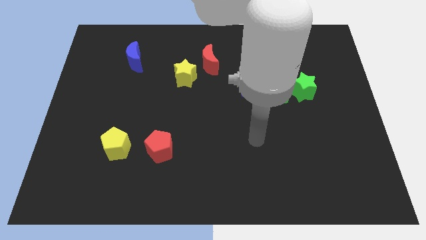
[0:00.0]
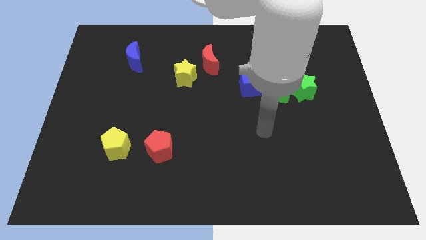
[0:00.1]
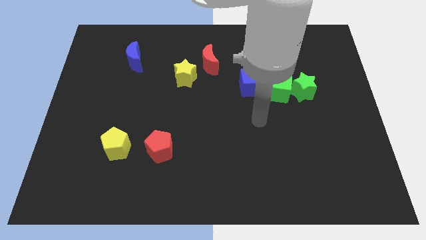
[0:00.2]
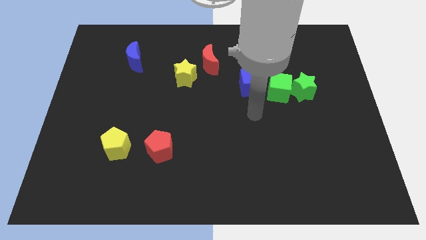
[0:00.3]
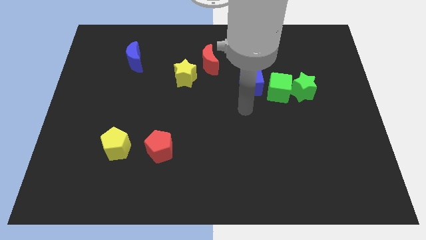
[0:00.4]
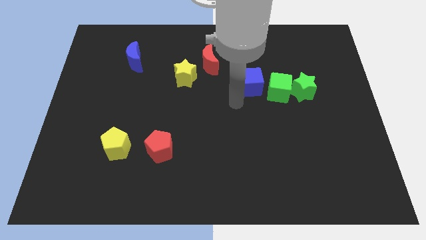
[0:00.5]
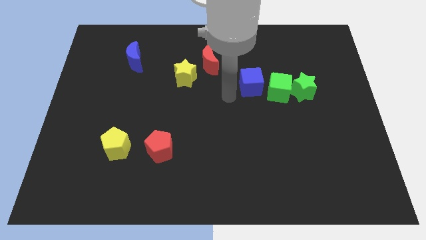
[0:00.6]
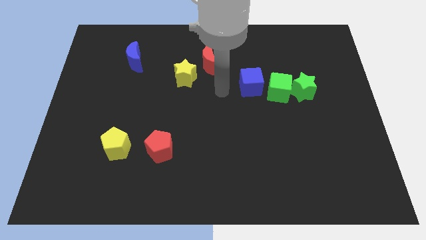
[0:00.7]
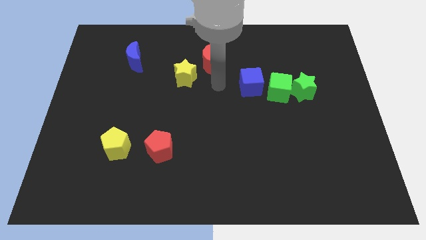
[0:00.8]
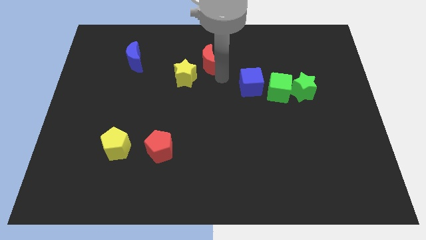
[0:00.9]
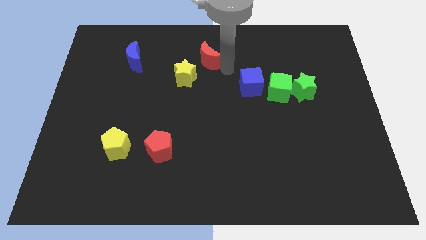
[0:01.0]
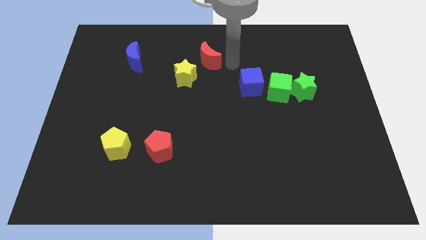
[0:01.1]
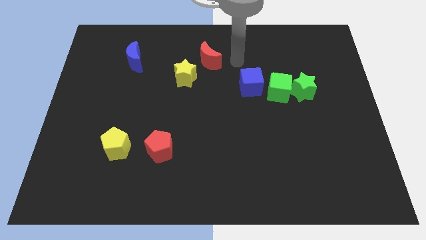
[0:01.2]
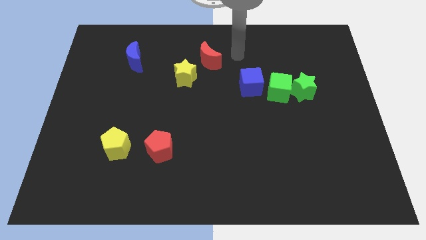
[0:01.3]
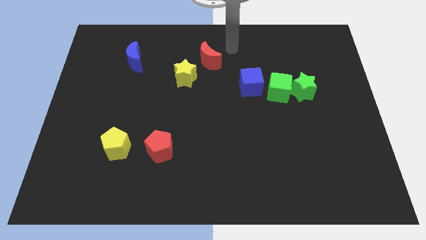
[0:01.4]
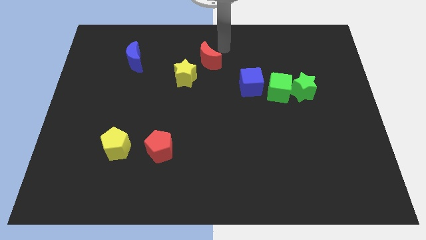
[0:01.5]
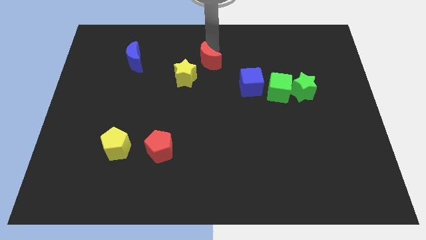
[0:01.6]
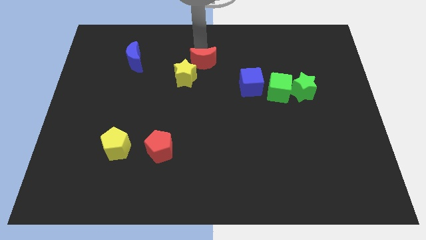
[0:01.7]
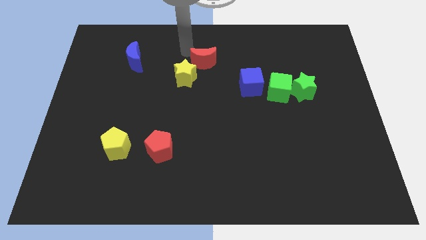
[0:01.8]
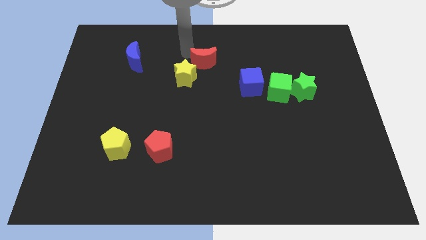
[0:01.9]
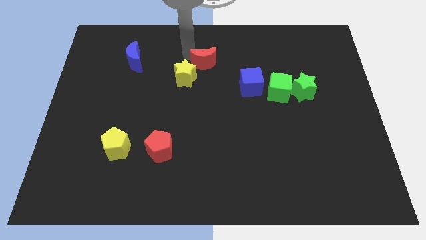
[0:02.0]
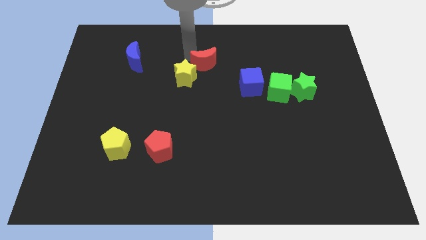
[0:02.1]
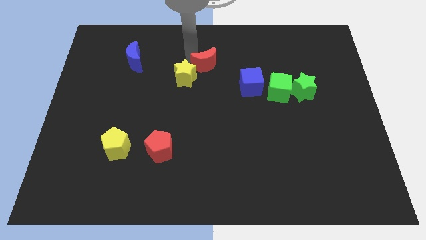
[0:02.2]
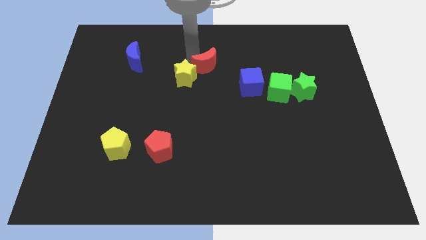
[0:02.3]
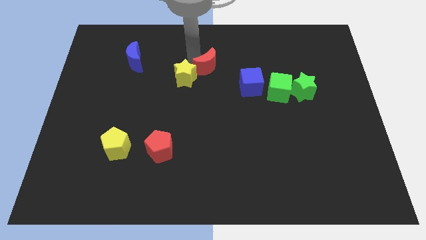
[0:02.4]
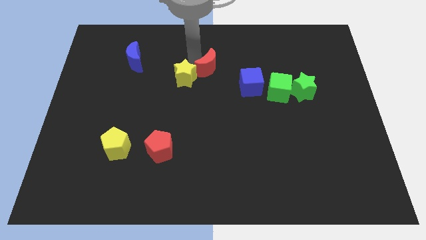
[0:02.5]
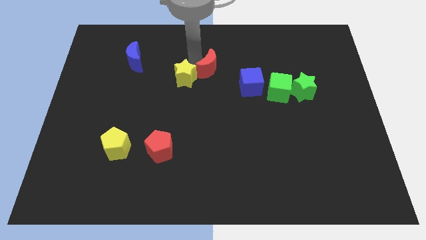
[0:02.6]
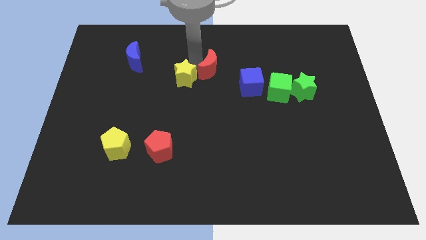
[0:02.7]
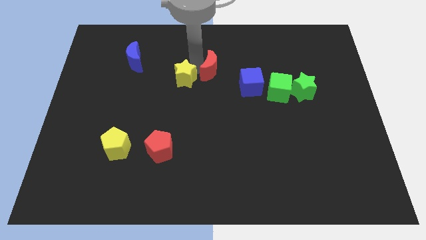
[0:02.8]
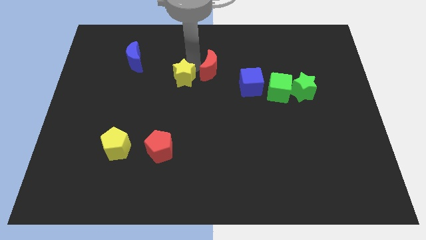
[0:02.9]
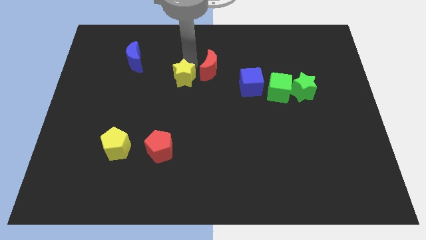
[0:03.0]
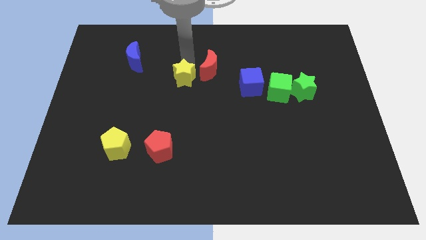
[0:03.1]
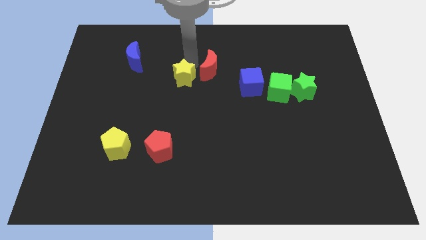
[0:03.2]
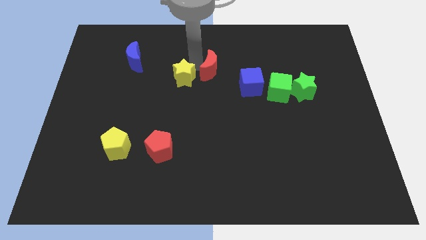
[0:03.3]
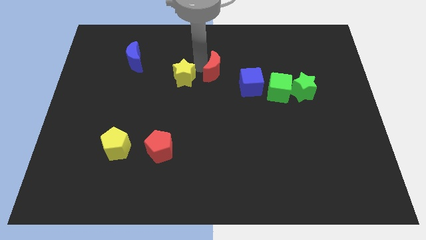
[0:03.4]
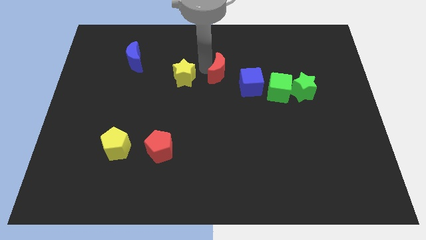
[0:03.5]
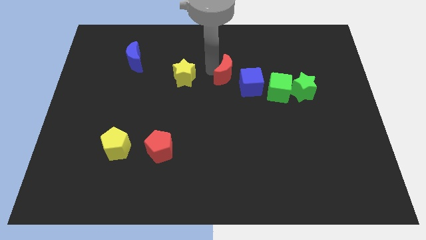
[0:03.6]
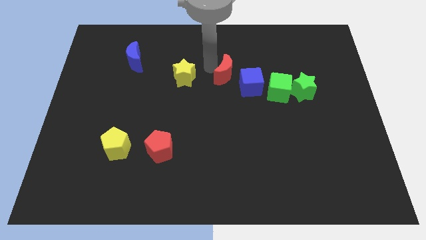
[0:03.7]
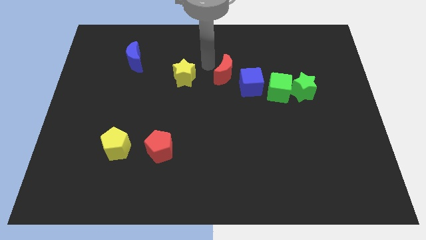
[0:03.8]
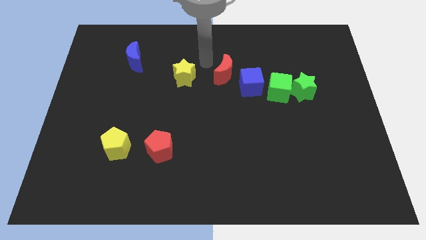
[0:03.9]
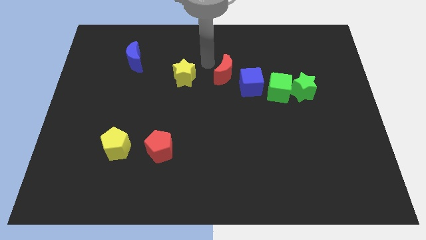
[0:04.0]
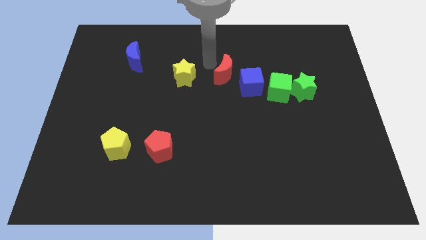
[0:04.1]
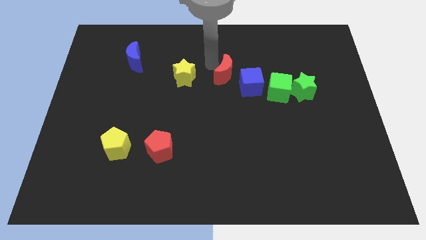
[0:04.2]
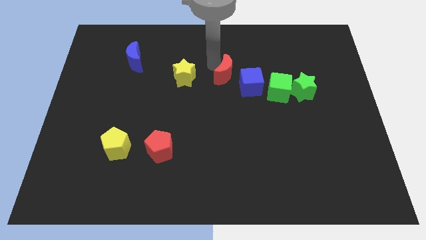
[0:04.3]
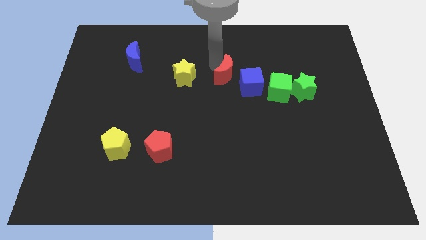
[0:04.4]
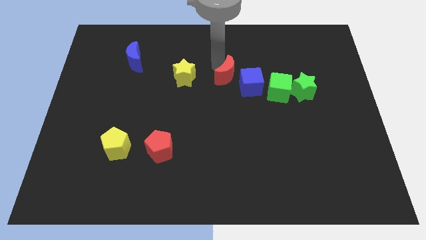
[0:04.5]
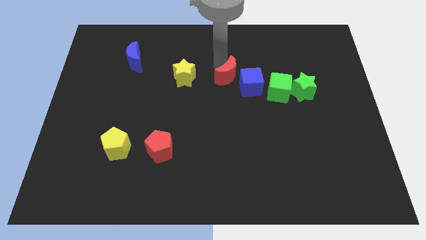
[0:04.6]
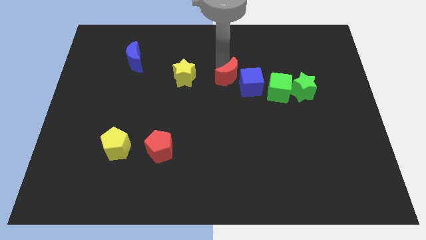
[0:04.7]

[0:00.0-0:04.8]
push the red moon next to the blue cube

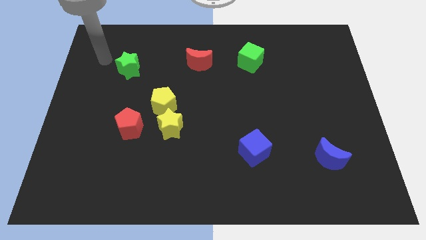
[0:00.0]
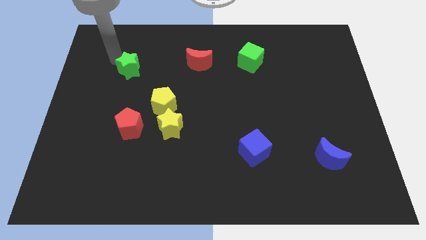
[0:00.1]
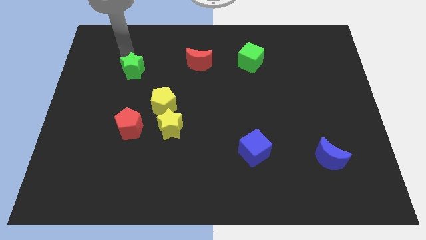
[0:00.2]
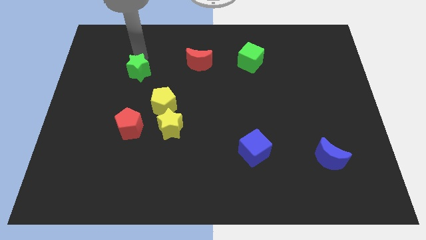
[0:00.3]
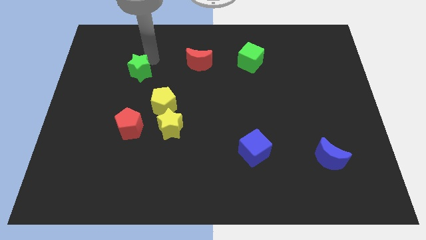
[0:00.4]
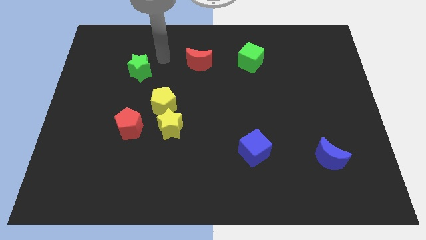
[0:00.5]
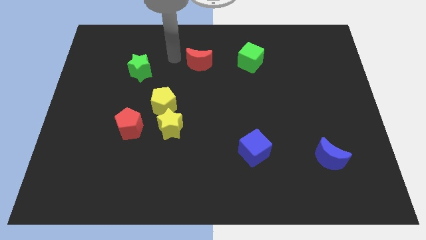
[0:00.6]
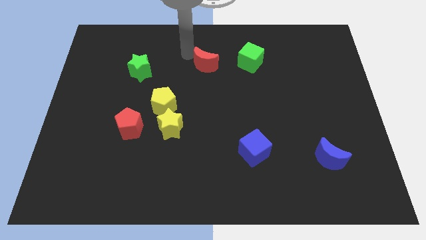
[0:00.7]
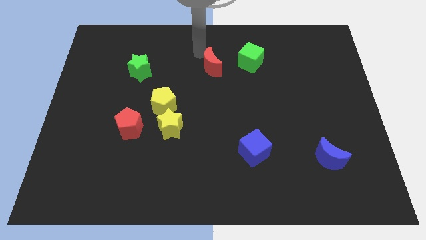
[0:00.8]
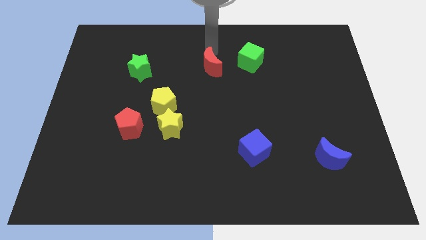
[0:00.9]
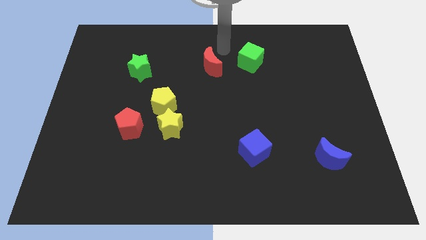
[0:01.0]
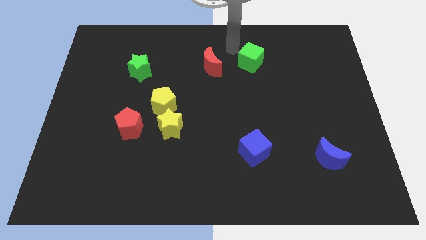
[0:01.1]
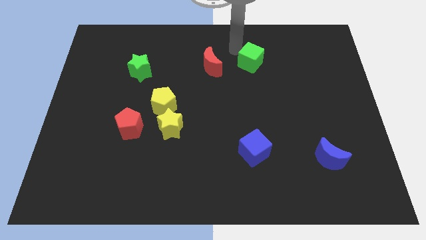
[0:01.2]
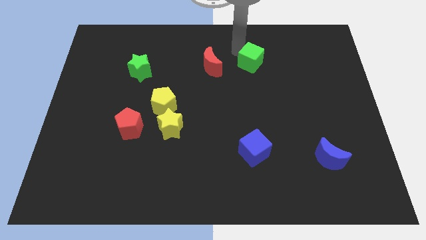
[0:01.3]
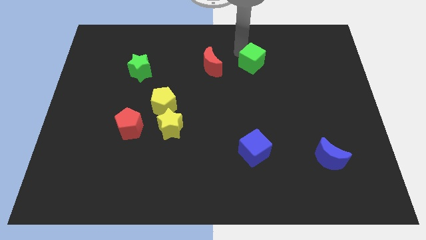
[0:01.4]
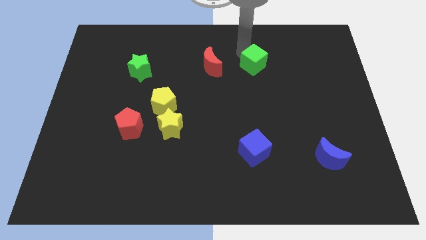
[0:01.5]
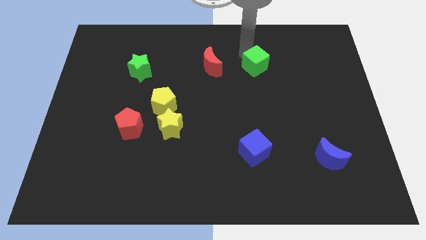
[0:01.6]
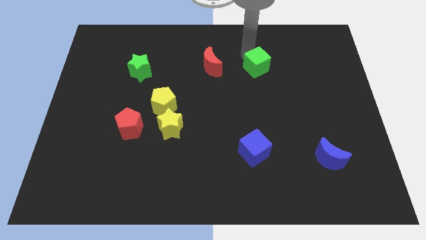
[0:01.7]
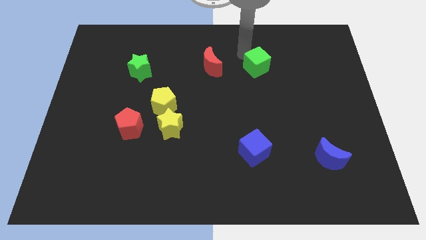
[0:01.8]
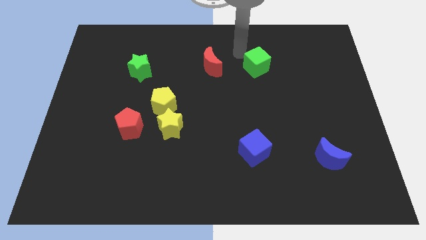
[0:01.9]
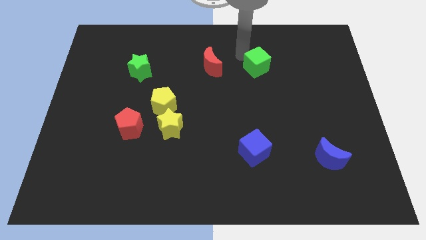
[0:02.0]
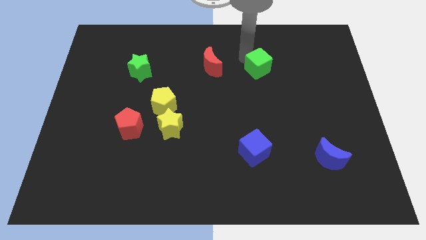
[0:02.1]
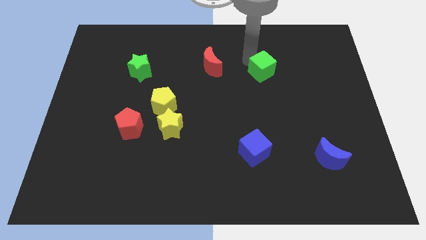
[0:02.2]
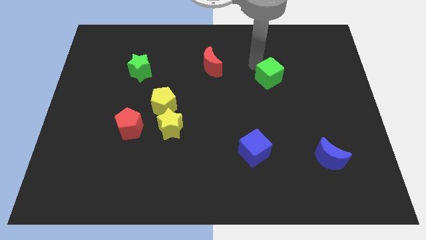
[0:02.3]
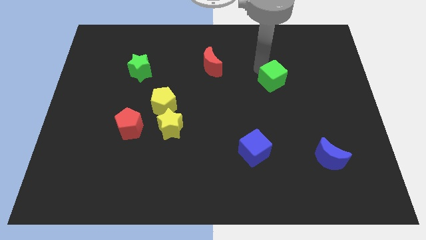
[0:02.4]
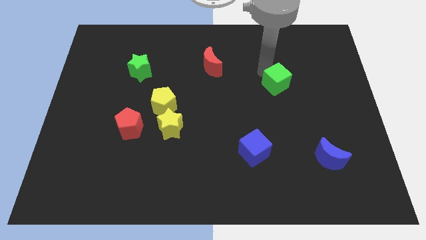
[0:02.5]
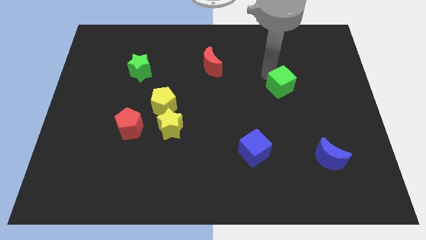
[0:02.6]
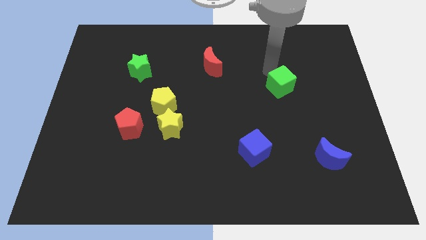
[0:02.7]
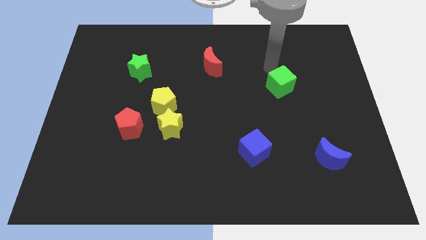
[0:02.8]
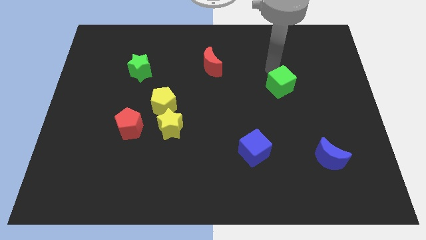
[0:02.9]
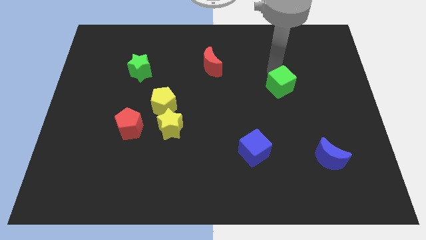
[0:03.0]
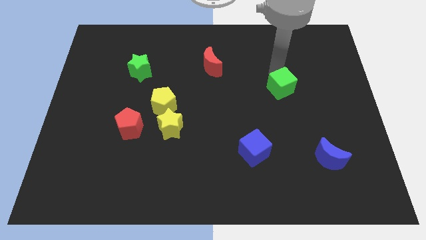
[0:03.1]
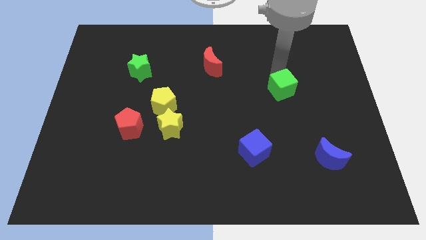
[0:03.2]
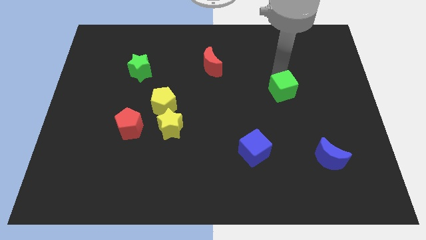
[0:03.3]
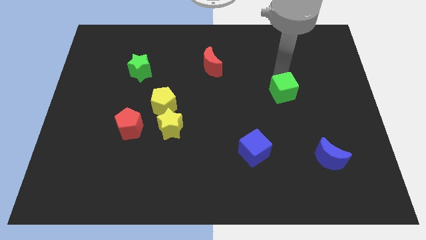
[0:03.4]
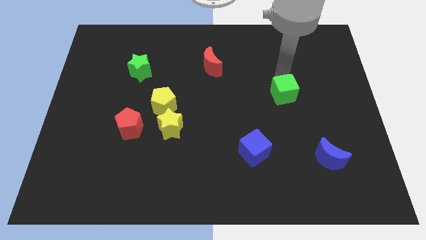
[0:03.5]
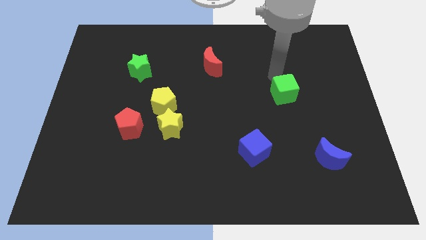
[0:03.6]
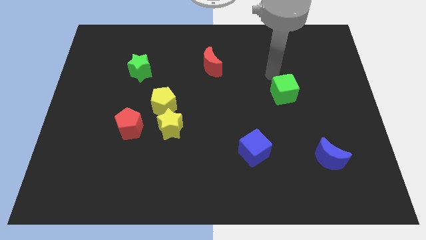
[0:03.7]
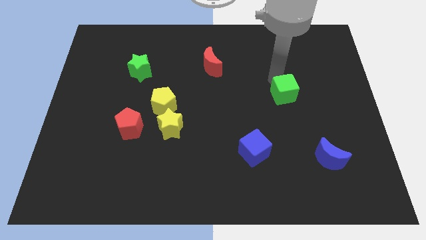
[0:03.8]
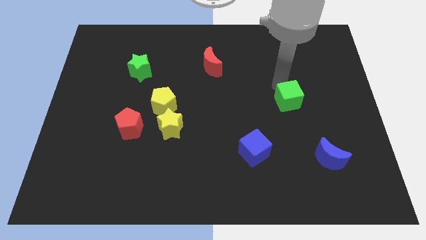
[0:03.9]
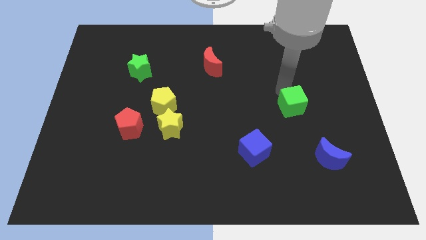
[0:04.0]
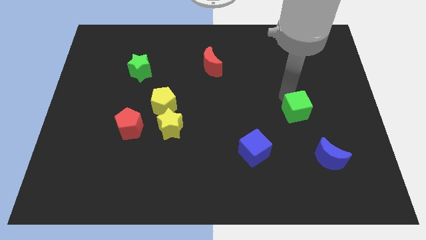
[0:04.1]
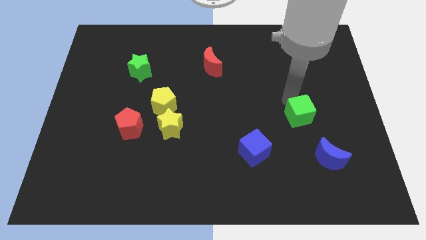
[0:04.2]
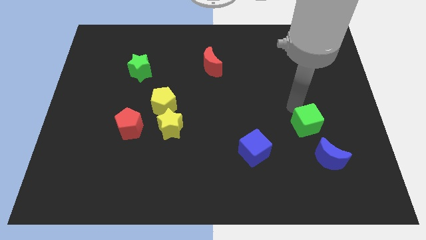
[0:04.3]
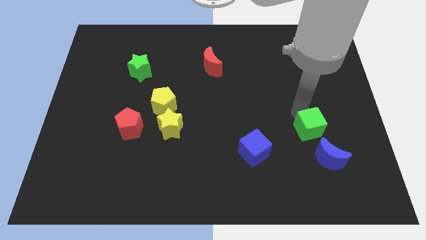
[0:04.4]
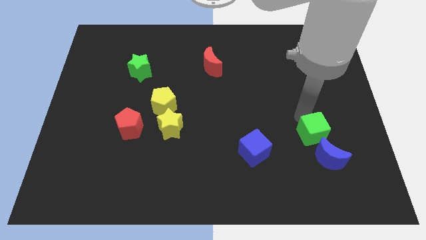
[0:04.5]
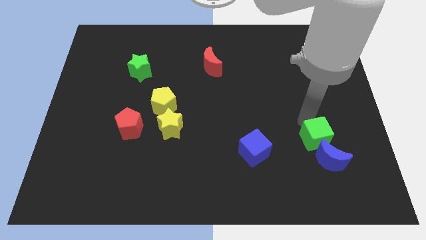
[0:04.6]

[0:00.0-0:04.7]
put the green cube close to the blue moon
